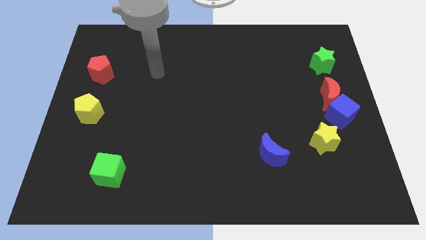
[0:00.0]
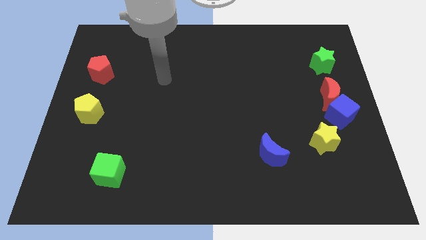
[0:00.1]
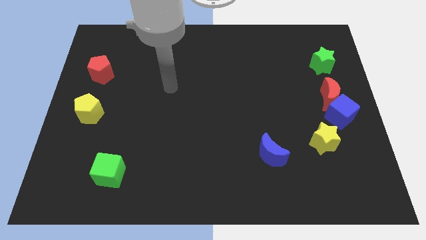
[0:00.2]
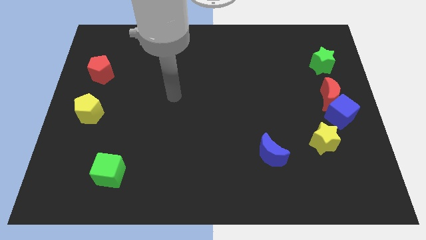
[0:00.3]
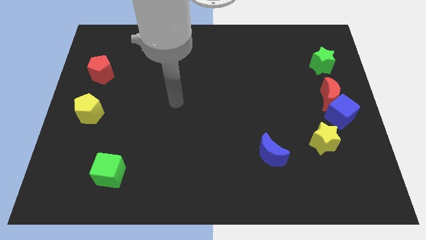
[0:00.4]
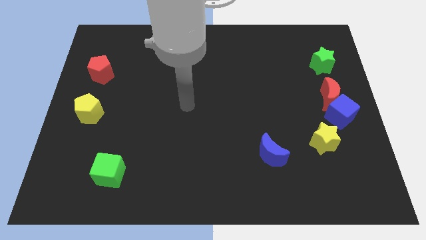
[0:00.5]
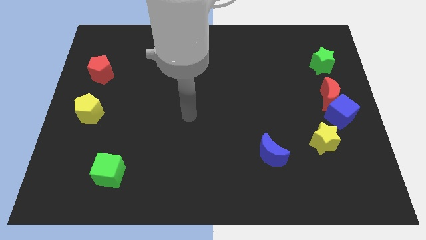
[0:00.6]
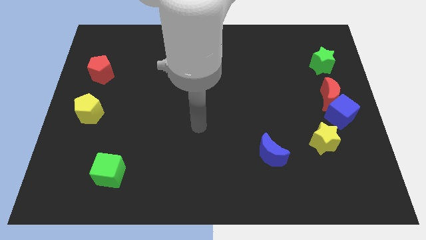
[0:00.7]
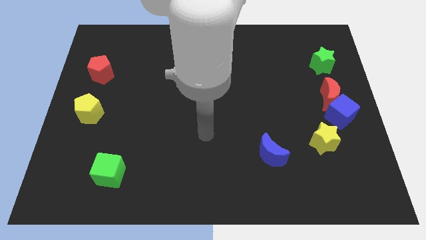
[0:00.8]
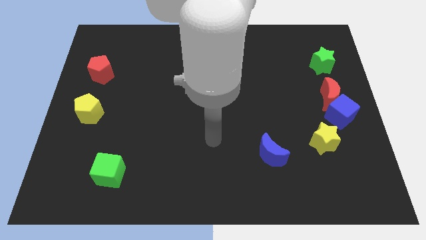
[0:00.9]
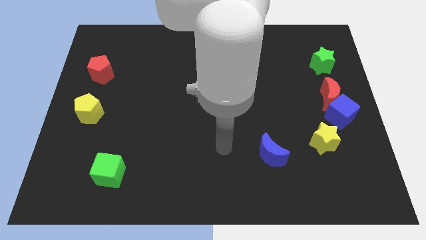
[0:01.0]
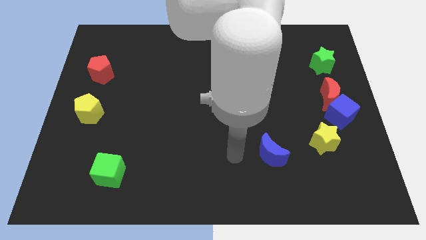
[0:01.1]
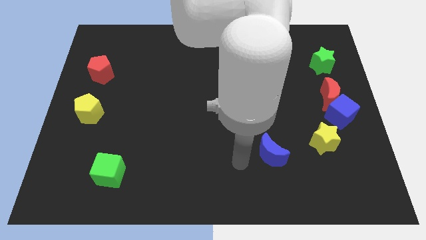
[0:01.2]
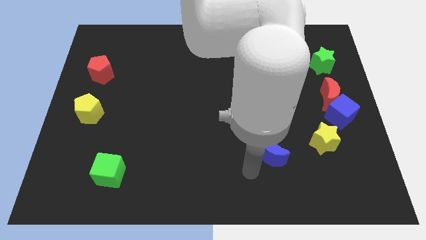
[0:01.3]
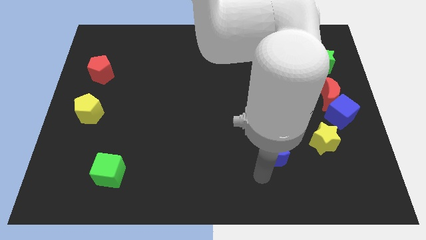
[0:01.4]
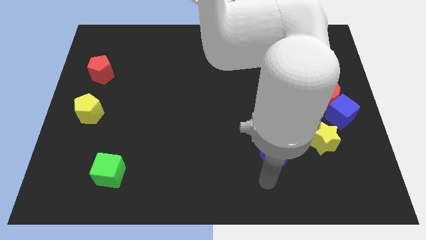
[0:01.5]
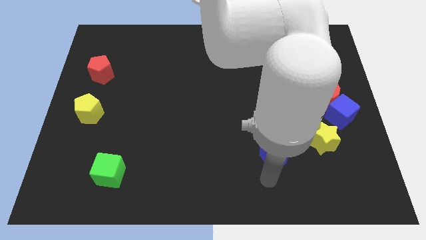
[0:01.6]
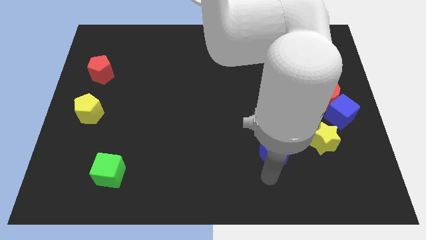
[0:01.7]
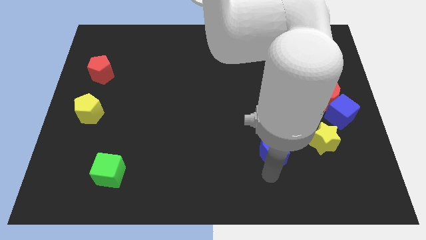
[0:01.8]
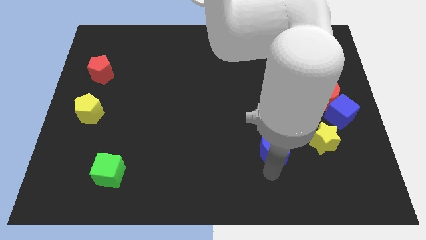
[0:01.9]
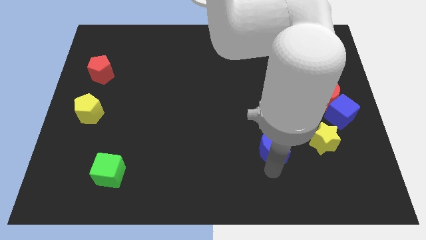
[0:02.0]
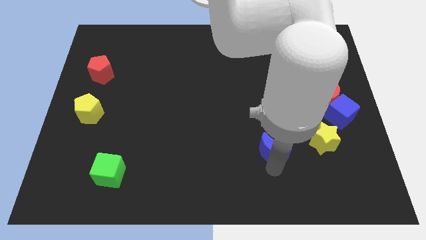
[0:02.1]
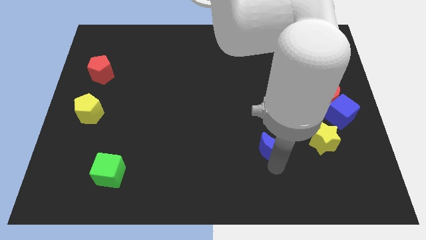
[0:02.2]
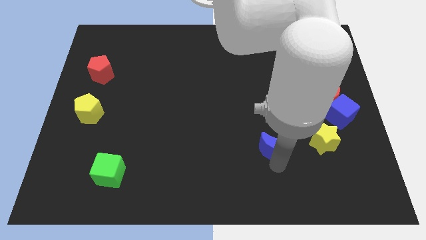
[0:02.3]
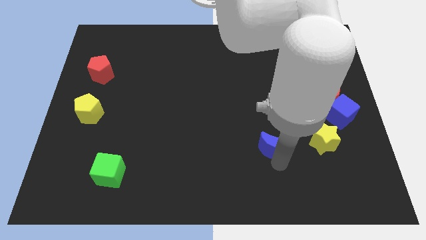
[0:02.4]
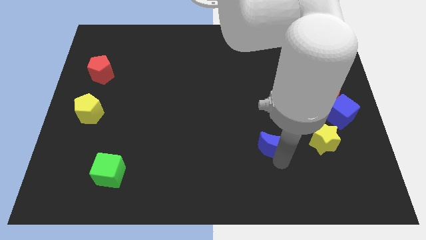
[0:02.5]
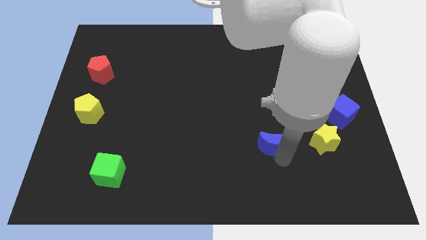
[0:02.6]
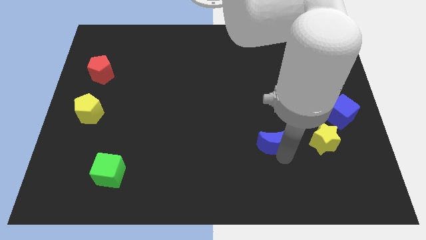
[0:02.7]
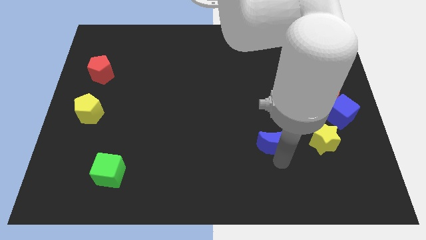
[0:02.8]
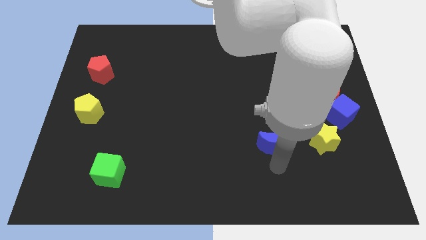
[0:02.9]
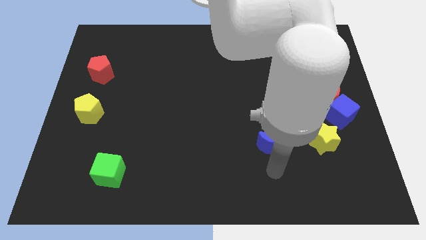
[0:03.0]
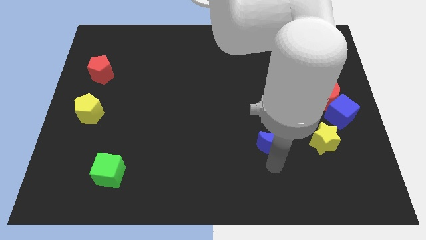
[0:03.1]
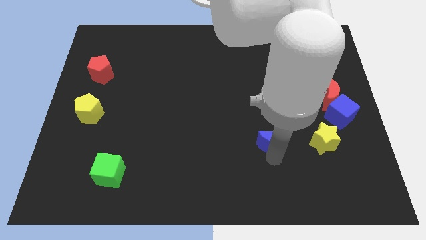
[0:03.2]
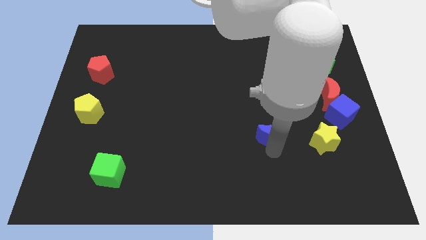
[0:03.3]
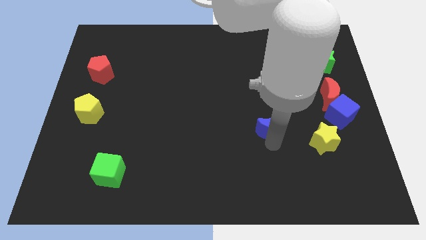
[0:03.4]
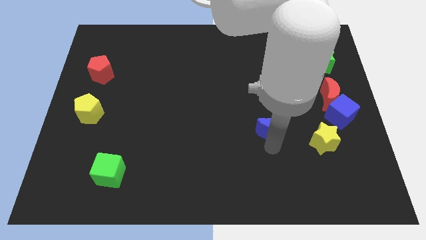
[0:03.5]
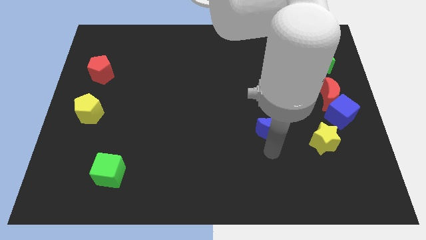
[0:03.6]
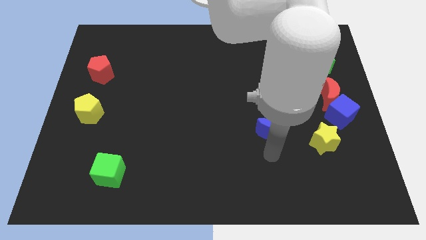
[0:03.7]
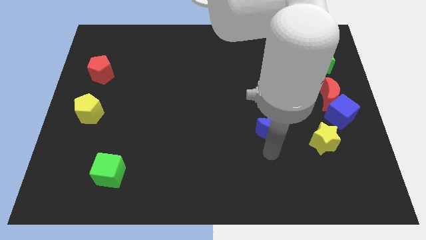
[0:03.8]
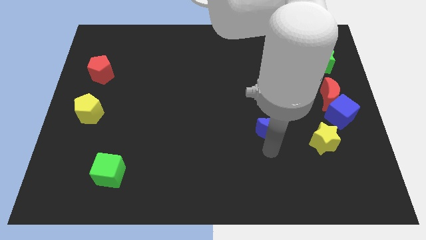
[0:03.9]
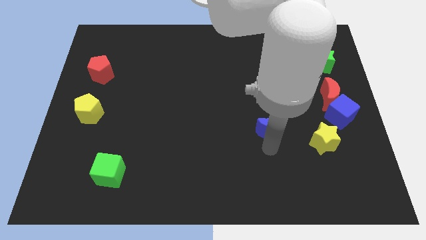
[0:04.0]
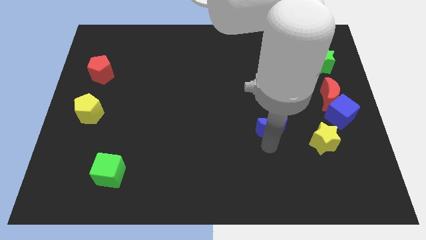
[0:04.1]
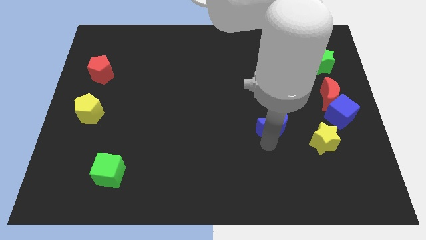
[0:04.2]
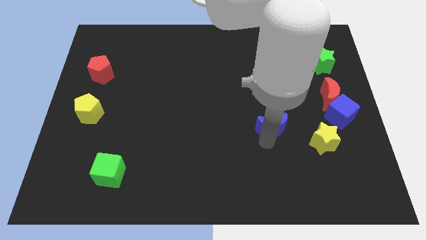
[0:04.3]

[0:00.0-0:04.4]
slide the blue moon up a little

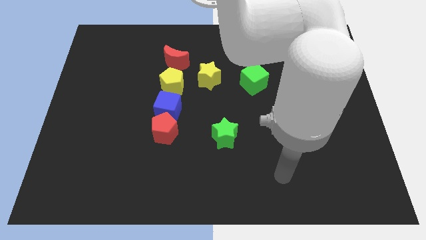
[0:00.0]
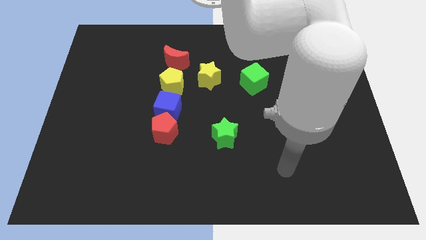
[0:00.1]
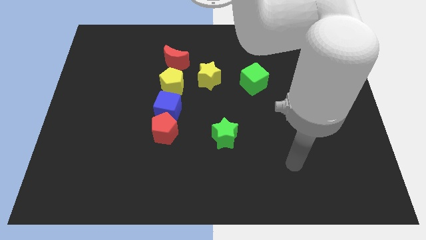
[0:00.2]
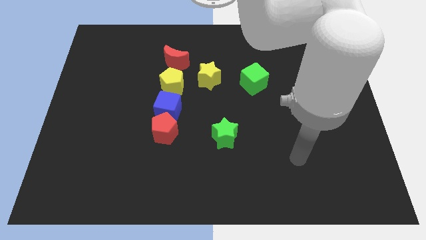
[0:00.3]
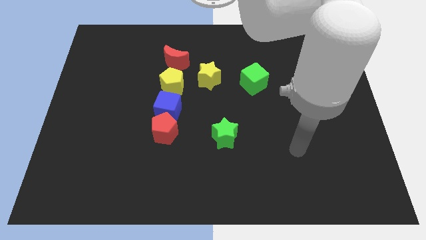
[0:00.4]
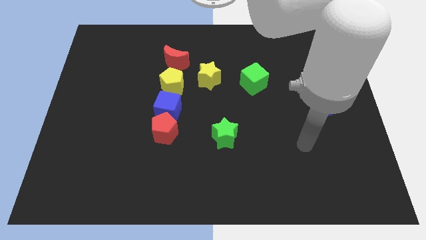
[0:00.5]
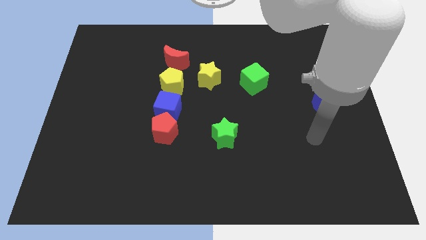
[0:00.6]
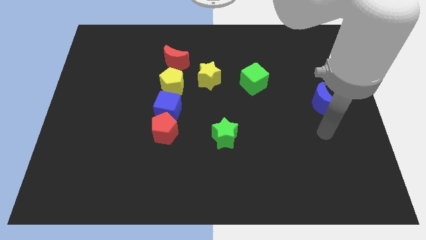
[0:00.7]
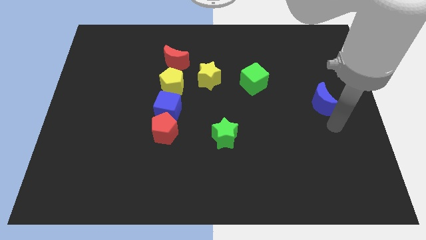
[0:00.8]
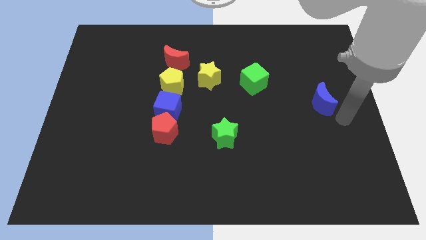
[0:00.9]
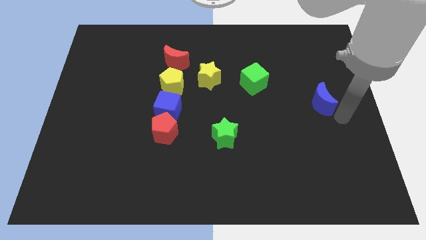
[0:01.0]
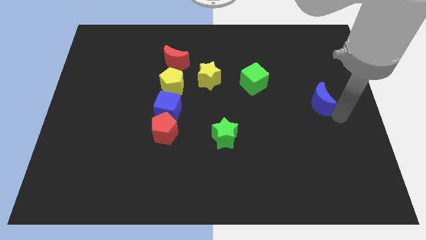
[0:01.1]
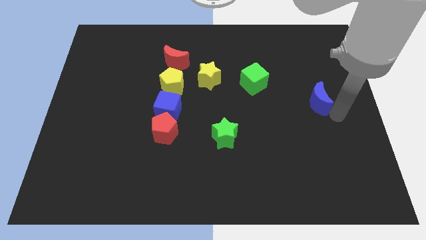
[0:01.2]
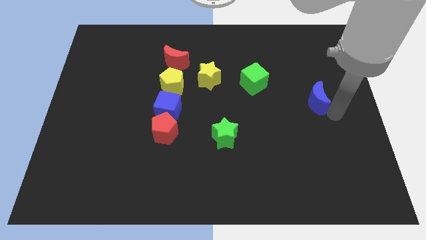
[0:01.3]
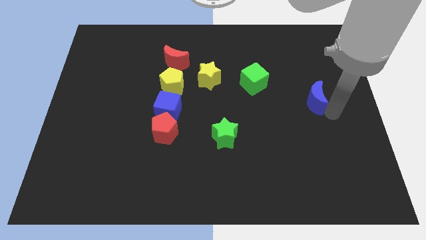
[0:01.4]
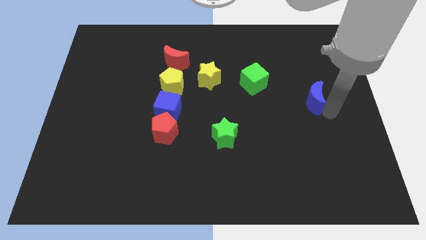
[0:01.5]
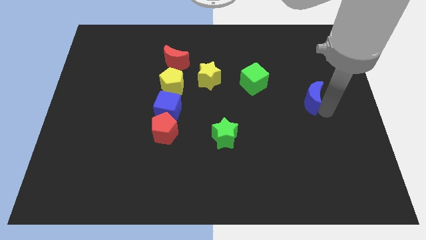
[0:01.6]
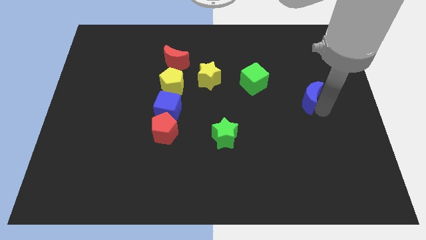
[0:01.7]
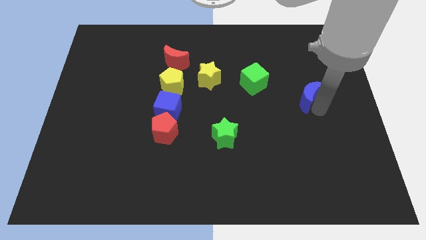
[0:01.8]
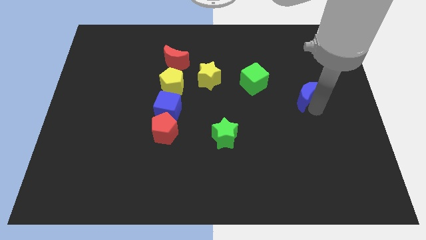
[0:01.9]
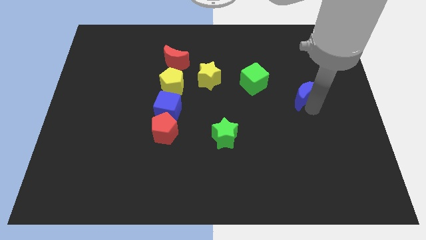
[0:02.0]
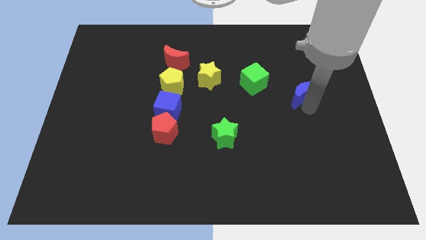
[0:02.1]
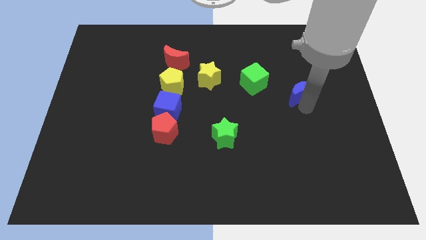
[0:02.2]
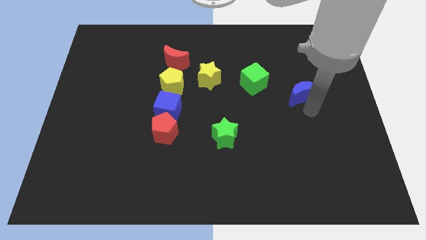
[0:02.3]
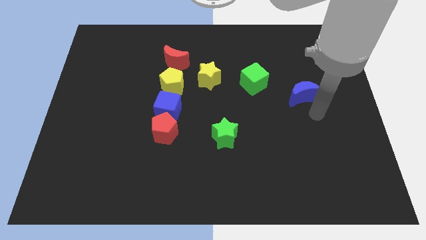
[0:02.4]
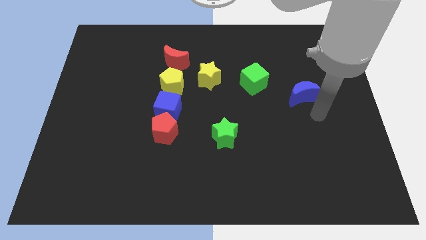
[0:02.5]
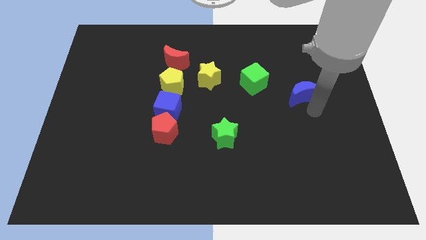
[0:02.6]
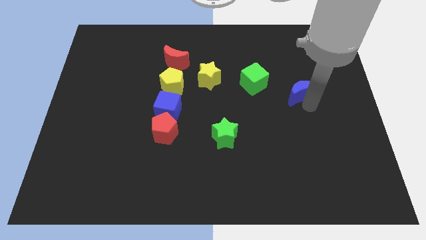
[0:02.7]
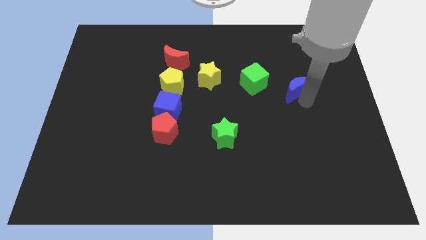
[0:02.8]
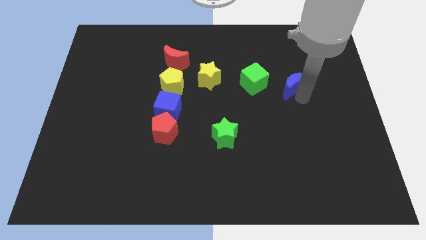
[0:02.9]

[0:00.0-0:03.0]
slide the blue moon a bit upwards and left

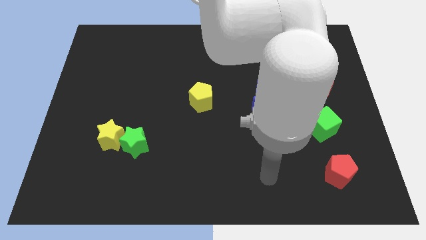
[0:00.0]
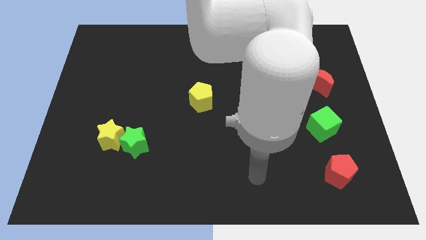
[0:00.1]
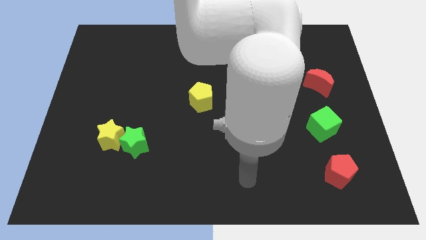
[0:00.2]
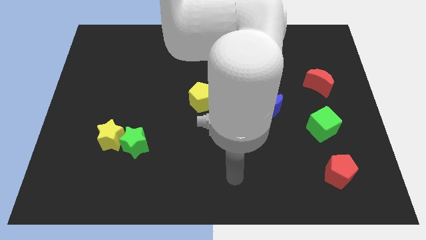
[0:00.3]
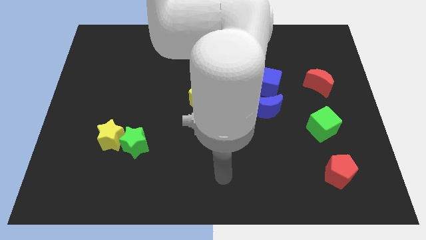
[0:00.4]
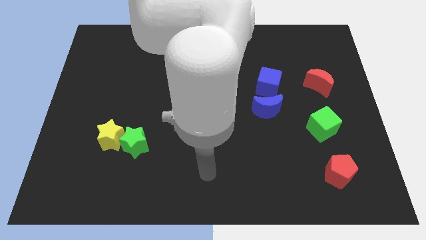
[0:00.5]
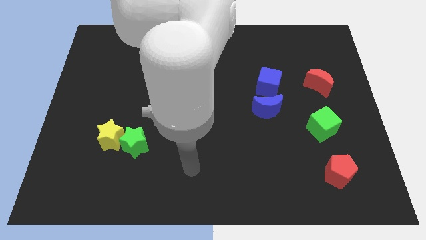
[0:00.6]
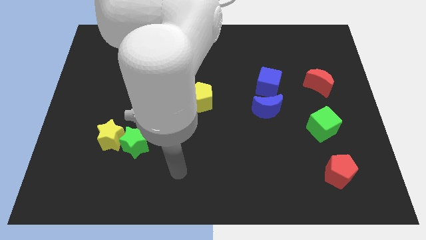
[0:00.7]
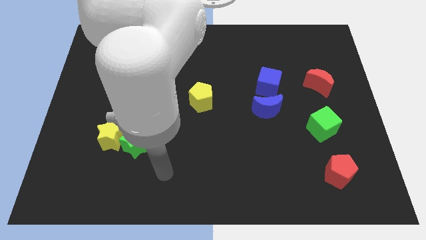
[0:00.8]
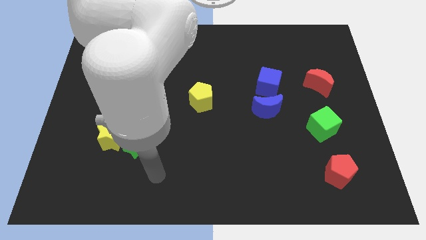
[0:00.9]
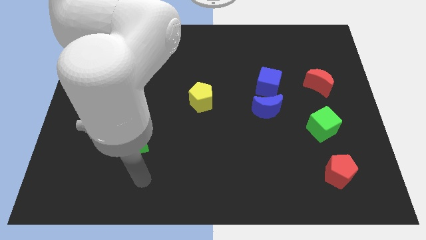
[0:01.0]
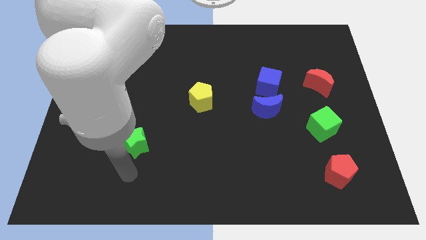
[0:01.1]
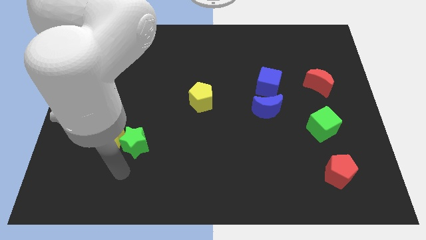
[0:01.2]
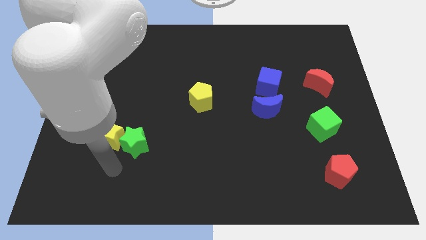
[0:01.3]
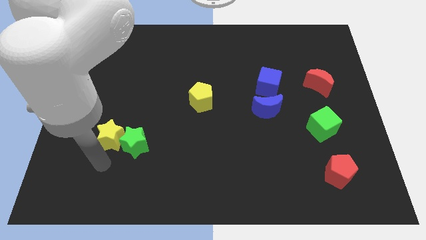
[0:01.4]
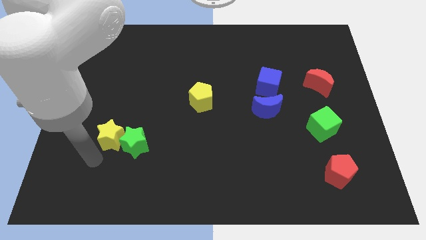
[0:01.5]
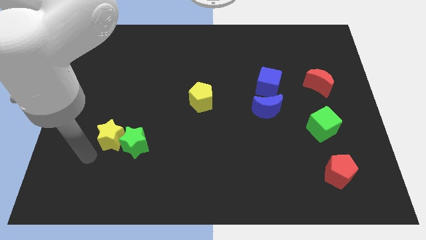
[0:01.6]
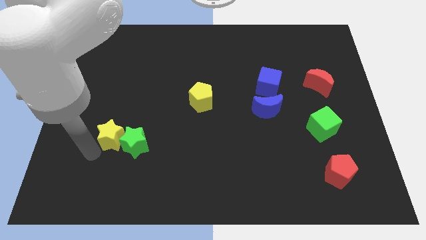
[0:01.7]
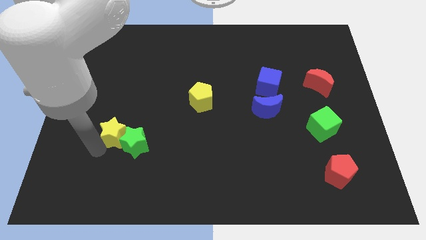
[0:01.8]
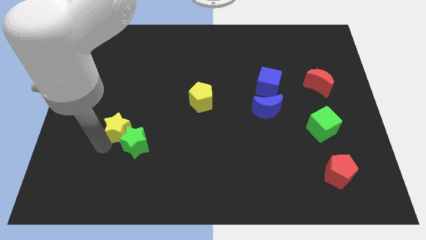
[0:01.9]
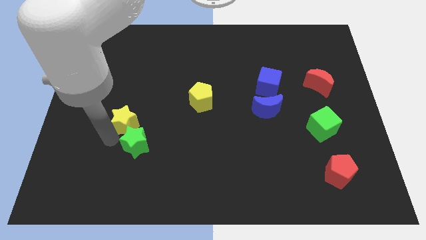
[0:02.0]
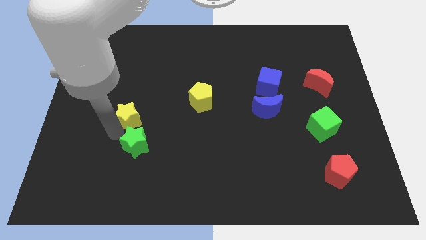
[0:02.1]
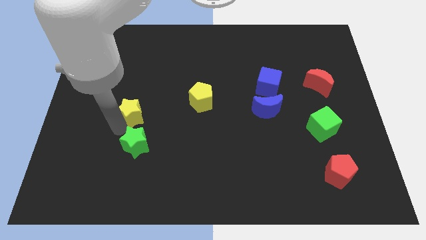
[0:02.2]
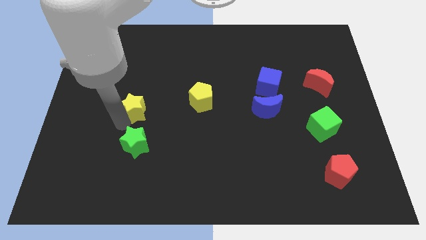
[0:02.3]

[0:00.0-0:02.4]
slide the yellow star up and right a little
